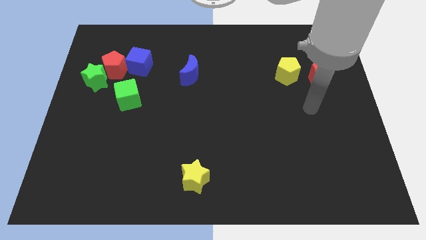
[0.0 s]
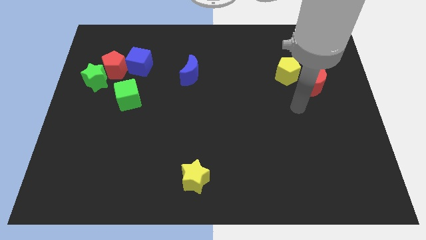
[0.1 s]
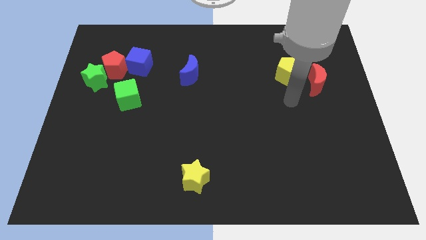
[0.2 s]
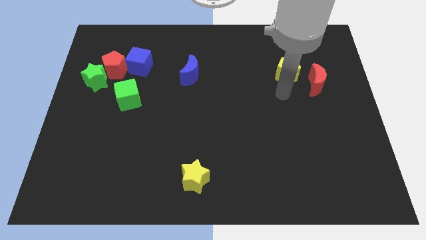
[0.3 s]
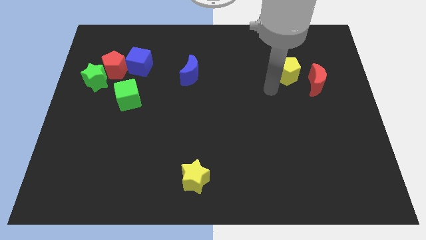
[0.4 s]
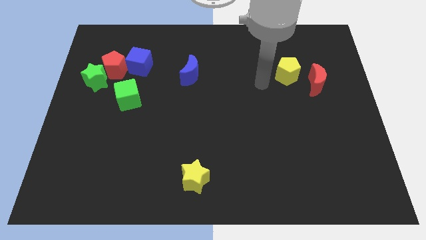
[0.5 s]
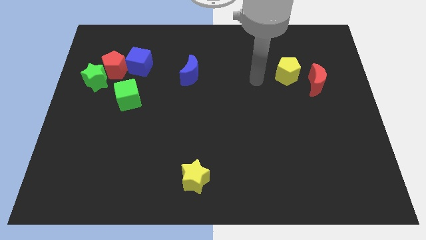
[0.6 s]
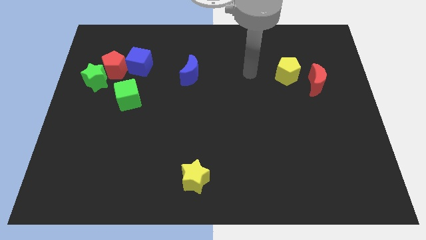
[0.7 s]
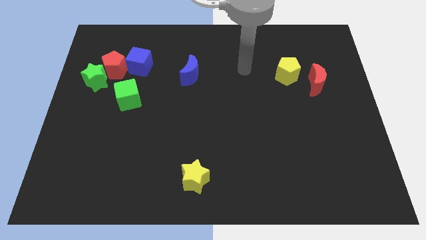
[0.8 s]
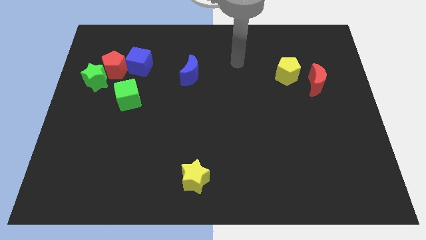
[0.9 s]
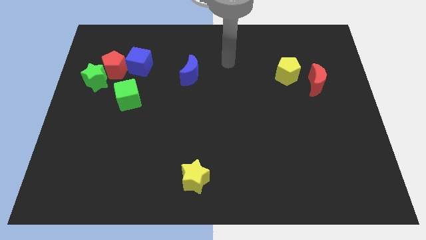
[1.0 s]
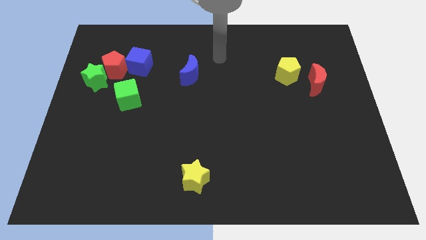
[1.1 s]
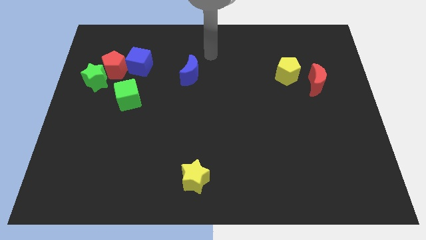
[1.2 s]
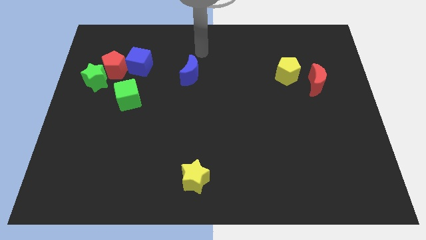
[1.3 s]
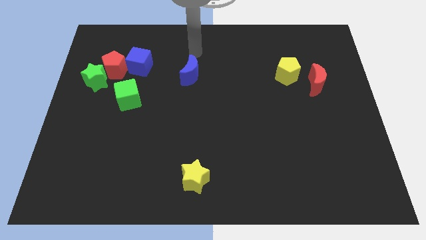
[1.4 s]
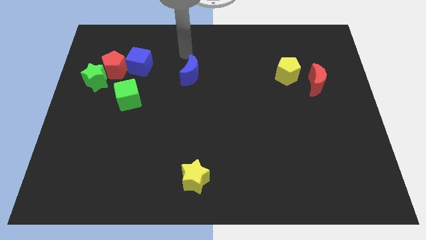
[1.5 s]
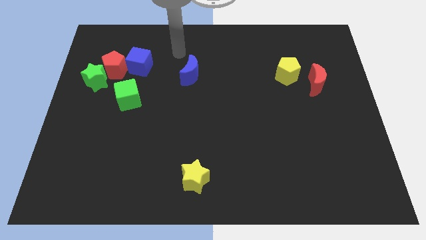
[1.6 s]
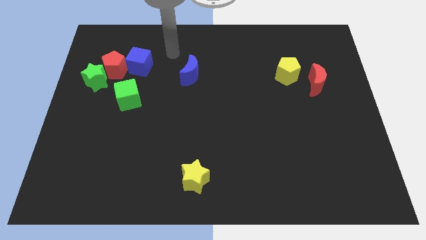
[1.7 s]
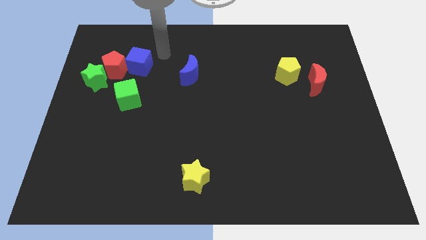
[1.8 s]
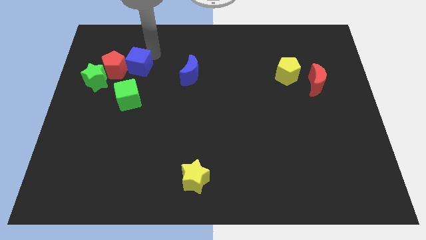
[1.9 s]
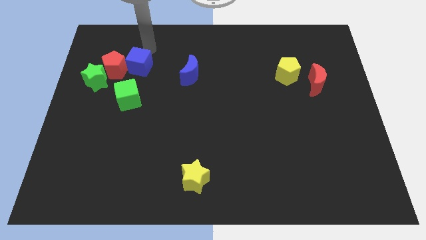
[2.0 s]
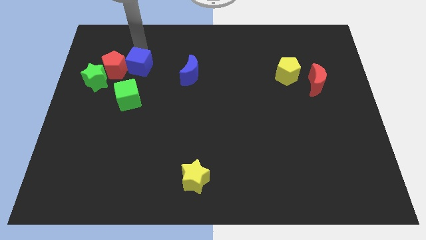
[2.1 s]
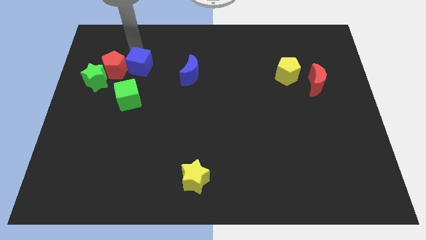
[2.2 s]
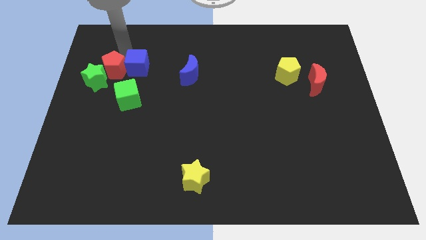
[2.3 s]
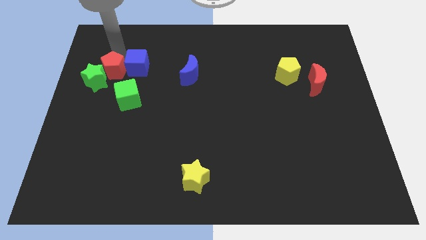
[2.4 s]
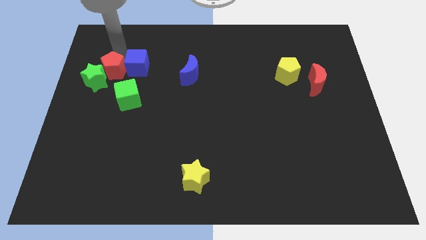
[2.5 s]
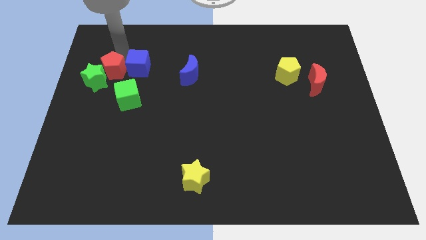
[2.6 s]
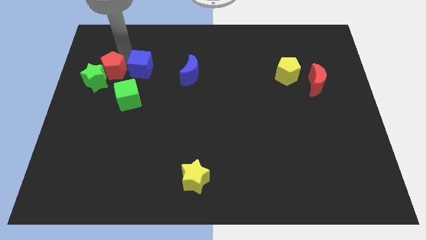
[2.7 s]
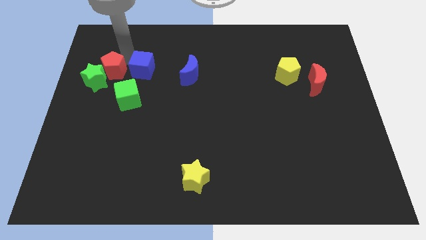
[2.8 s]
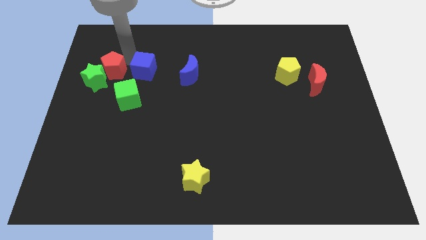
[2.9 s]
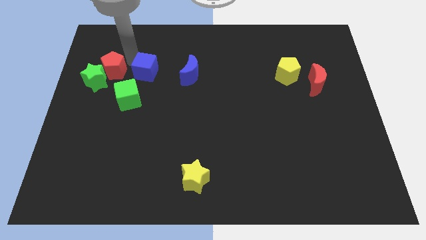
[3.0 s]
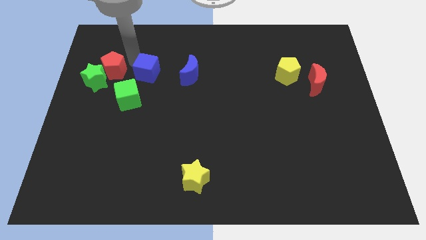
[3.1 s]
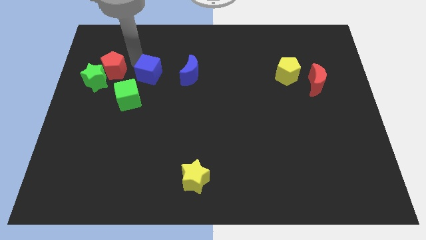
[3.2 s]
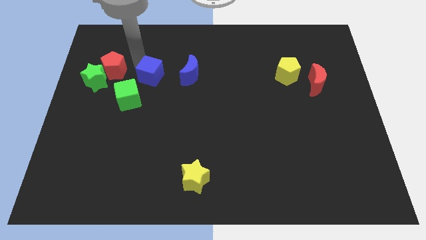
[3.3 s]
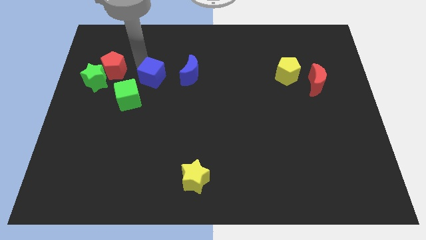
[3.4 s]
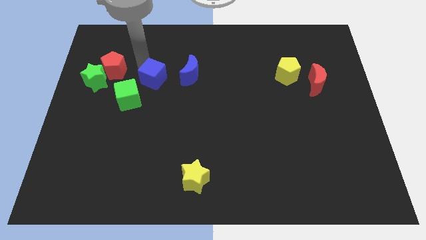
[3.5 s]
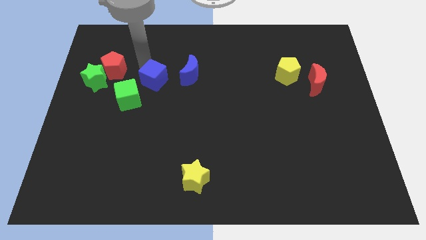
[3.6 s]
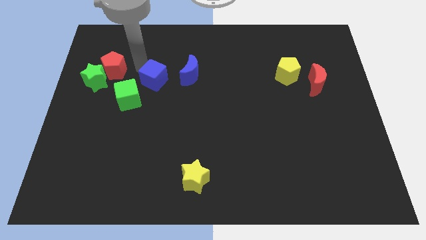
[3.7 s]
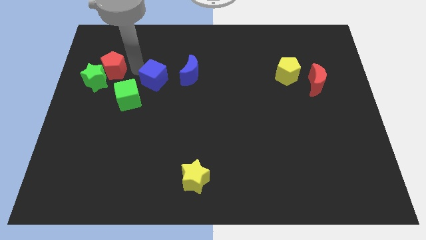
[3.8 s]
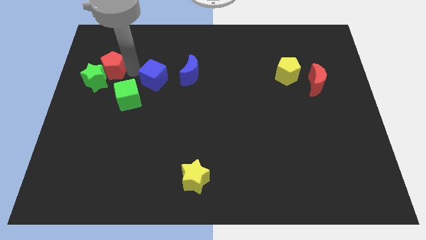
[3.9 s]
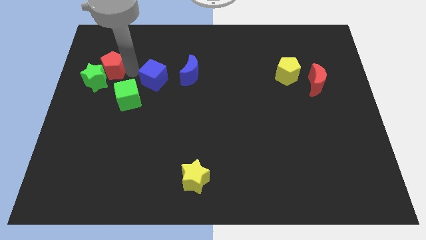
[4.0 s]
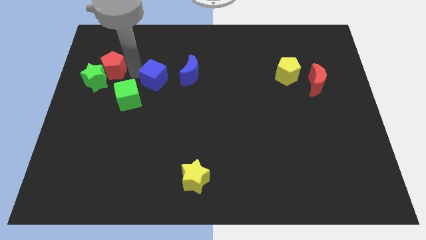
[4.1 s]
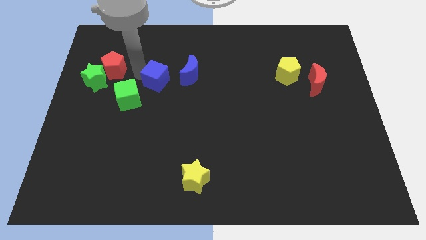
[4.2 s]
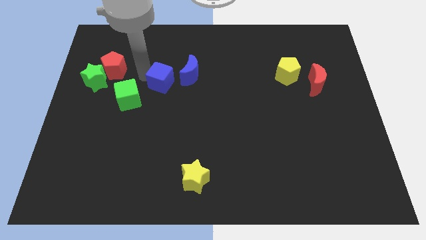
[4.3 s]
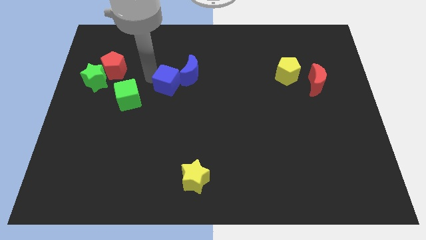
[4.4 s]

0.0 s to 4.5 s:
push the blue cube to the center of the board

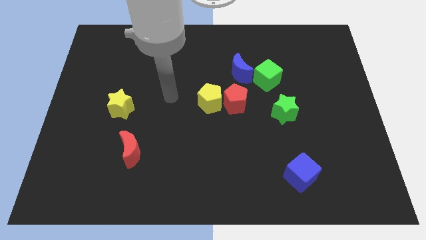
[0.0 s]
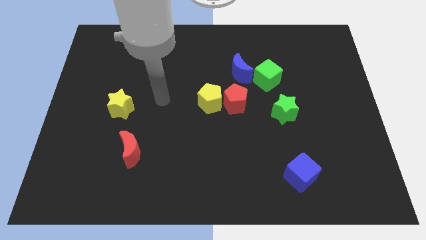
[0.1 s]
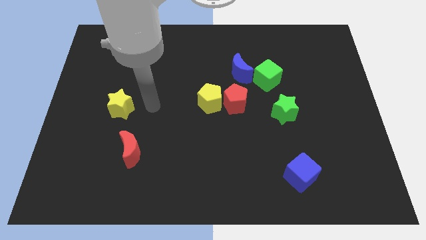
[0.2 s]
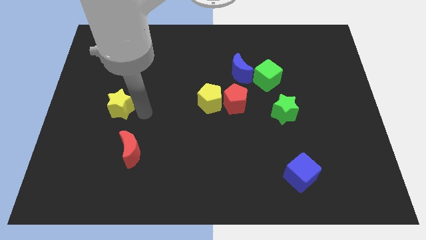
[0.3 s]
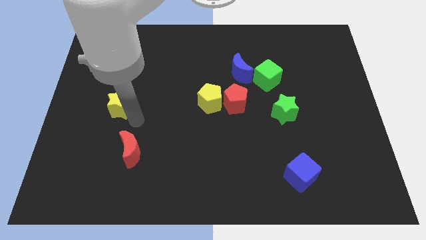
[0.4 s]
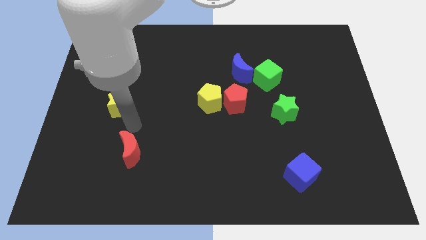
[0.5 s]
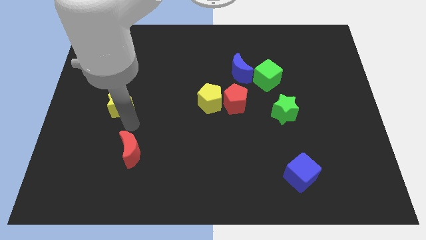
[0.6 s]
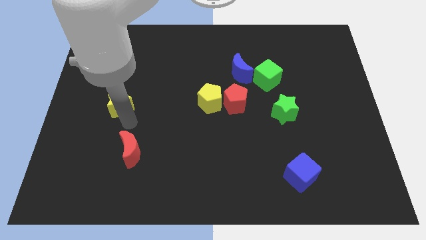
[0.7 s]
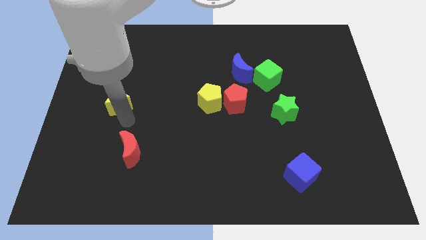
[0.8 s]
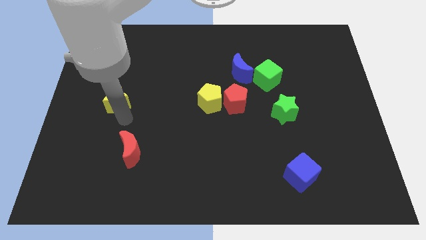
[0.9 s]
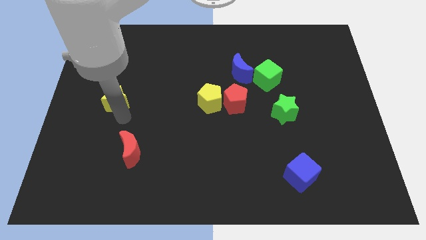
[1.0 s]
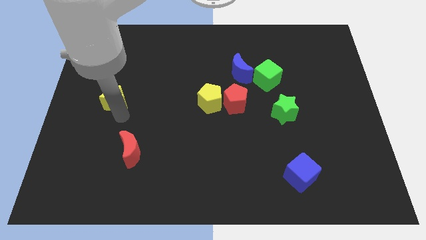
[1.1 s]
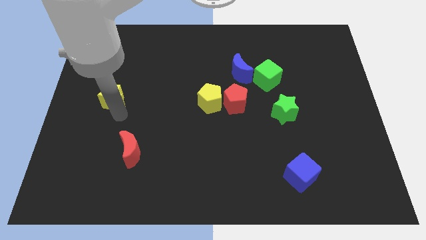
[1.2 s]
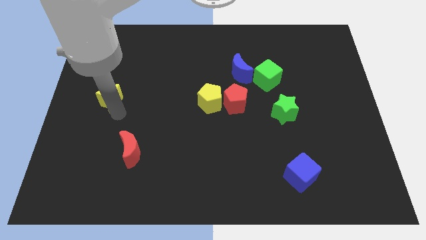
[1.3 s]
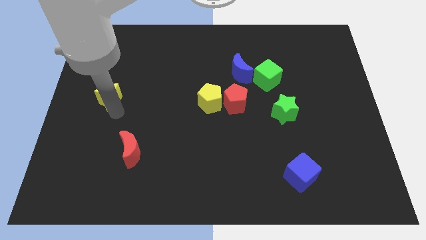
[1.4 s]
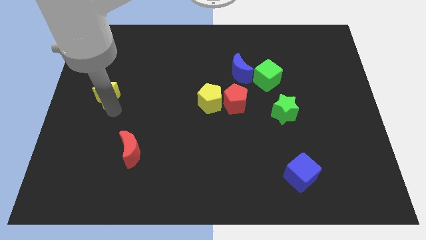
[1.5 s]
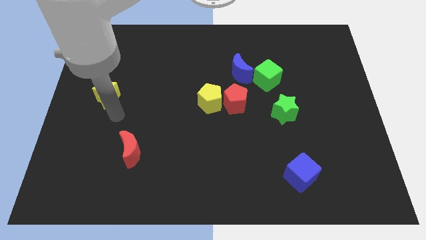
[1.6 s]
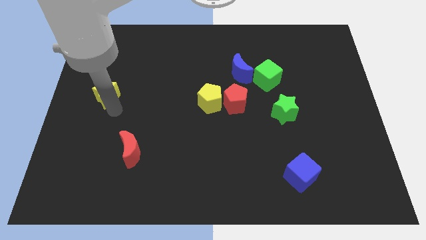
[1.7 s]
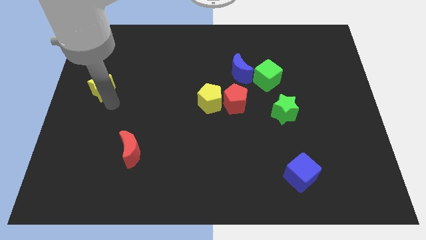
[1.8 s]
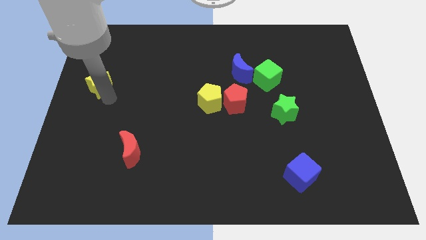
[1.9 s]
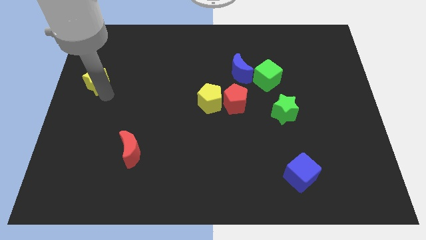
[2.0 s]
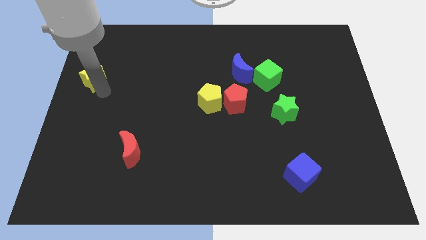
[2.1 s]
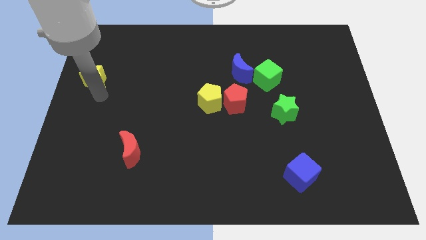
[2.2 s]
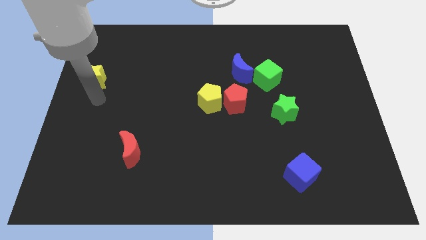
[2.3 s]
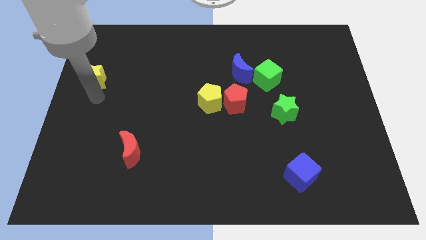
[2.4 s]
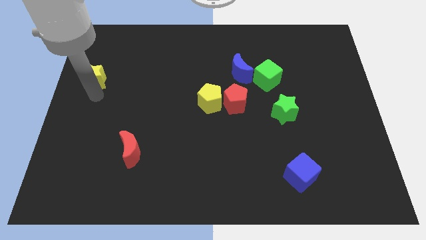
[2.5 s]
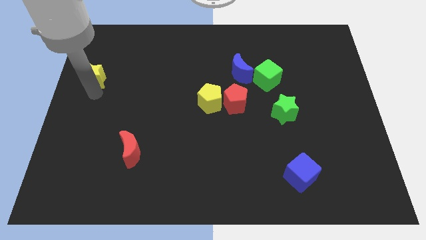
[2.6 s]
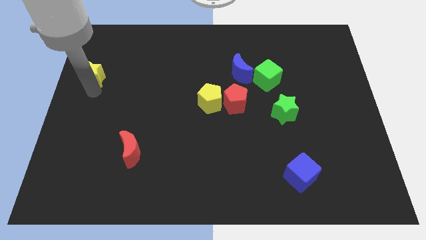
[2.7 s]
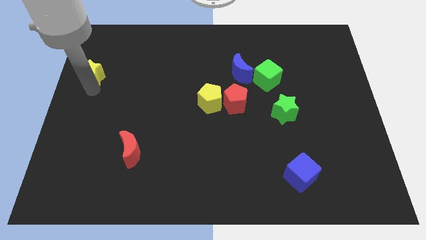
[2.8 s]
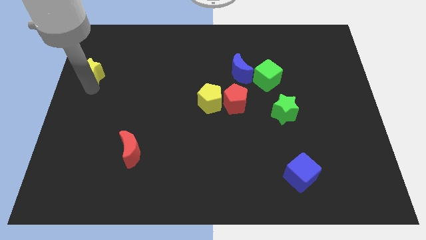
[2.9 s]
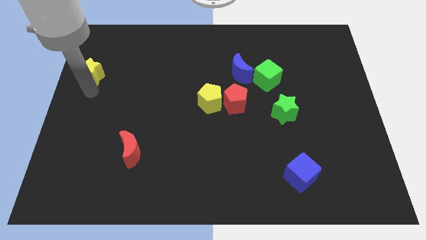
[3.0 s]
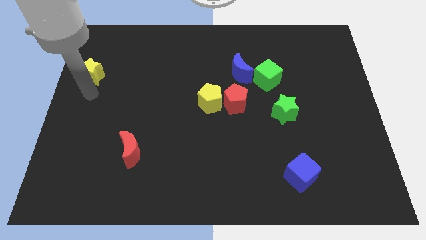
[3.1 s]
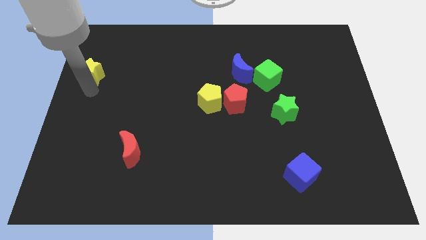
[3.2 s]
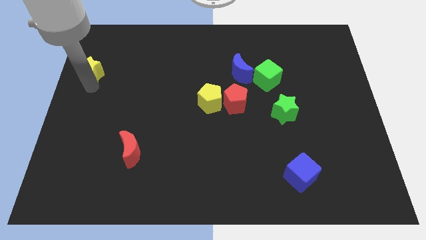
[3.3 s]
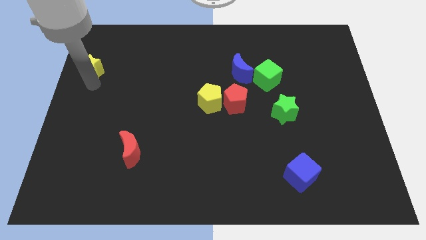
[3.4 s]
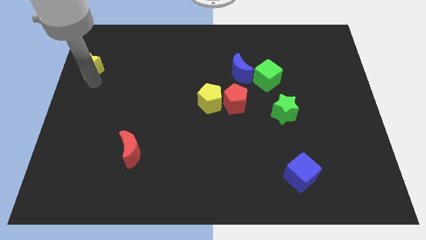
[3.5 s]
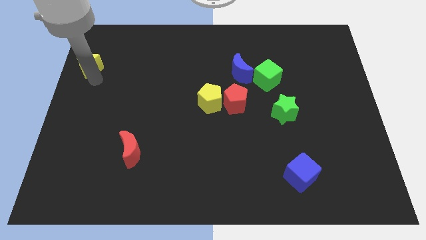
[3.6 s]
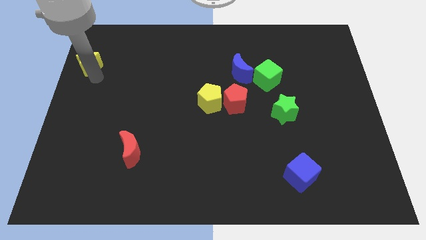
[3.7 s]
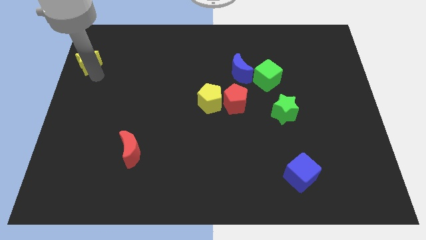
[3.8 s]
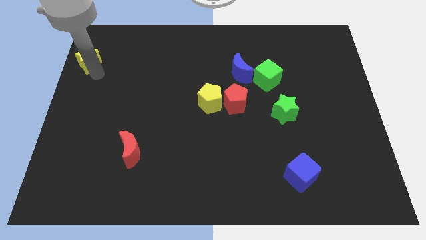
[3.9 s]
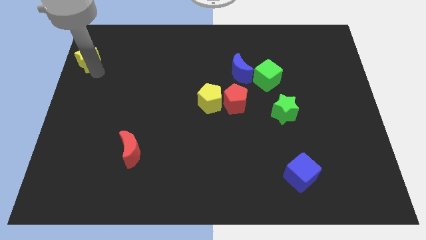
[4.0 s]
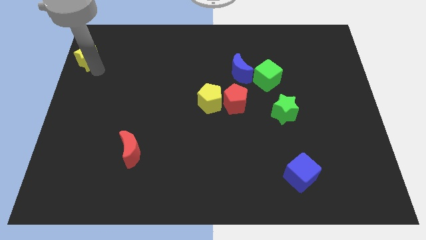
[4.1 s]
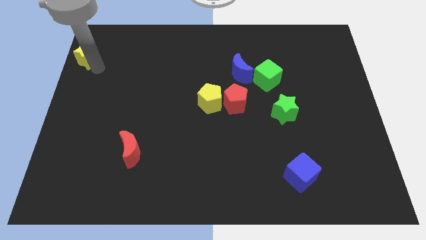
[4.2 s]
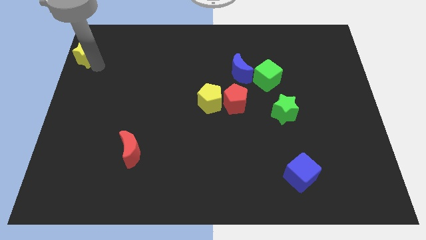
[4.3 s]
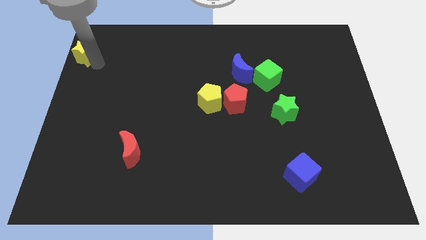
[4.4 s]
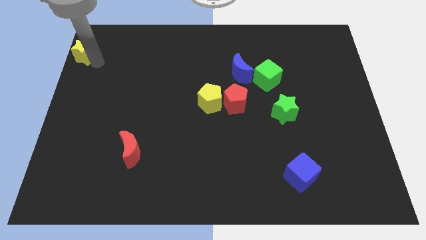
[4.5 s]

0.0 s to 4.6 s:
move the yellow star to the top left corner
